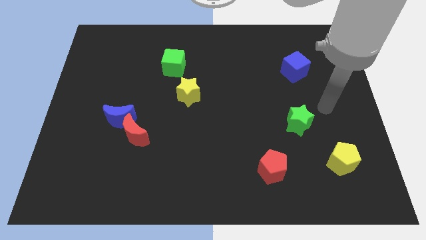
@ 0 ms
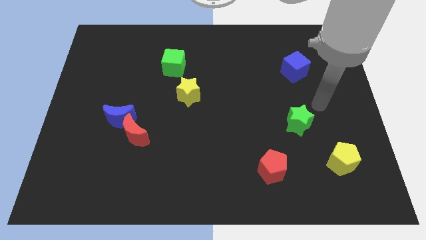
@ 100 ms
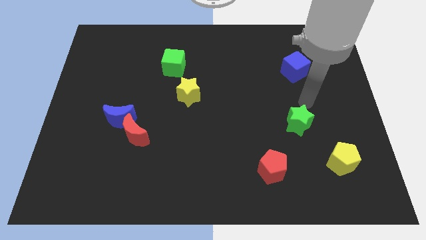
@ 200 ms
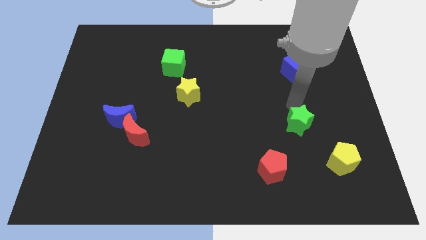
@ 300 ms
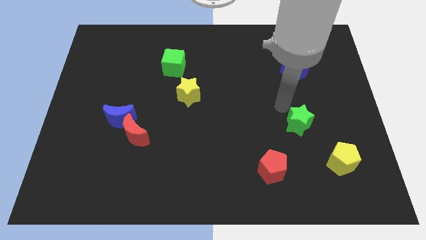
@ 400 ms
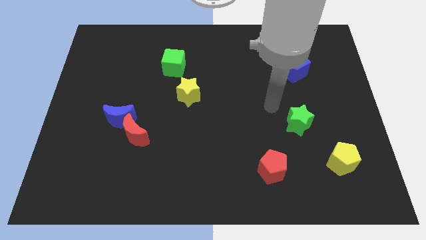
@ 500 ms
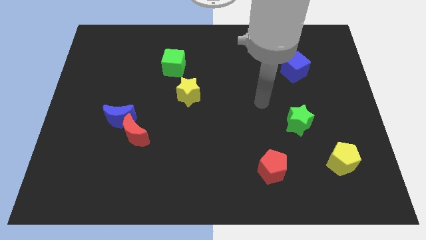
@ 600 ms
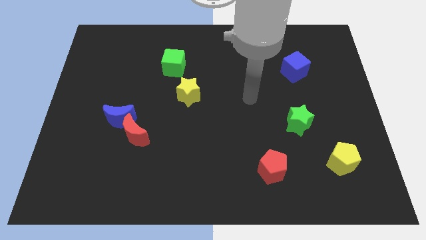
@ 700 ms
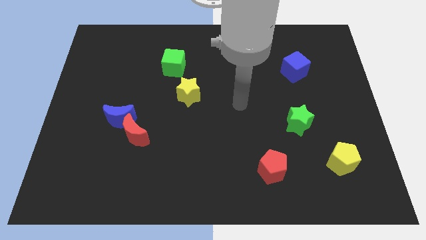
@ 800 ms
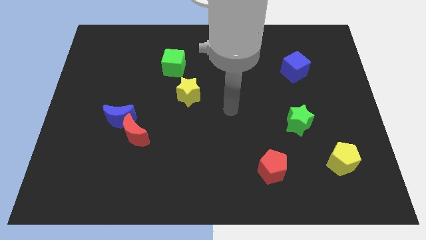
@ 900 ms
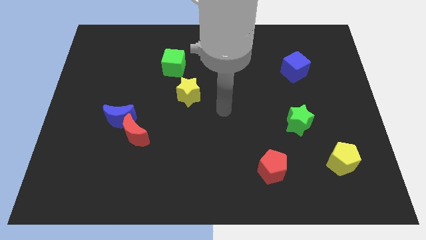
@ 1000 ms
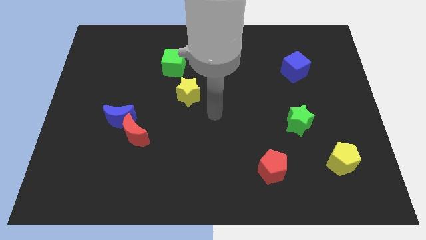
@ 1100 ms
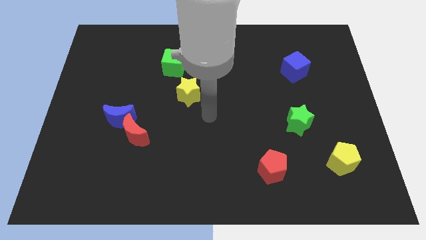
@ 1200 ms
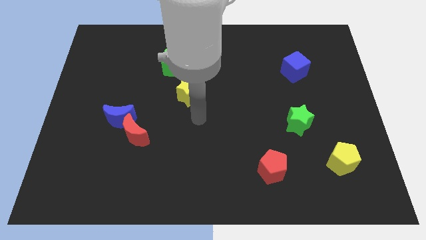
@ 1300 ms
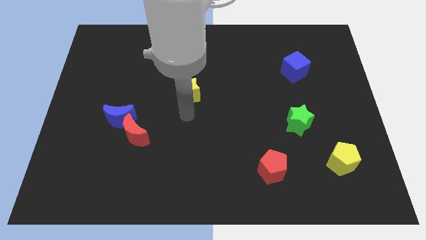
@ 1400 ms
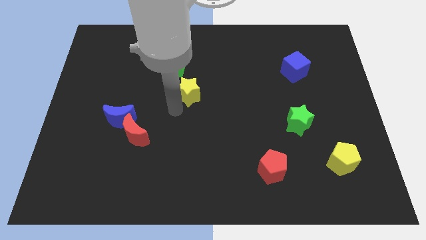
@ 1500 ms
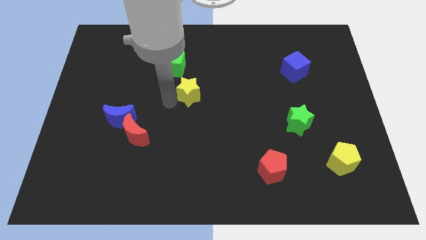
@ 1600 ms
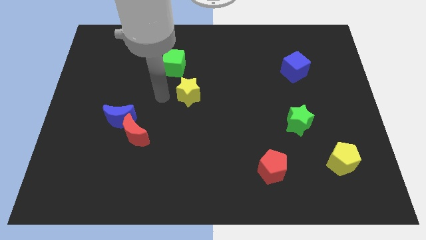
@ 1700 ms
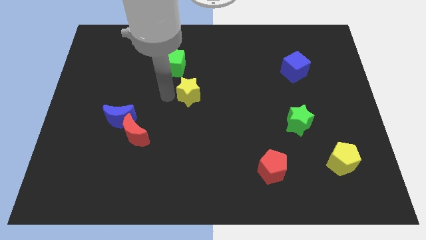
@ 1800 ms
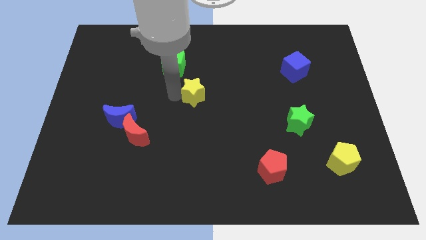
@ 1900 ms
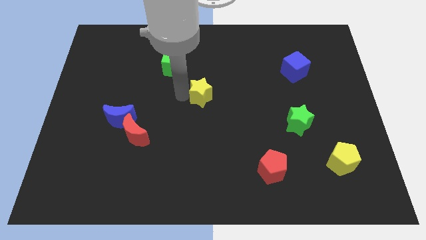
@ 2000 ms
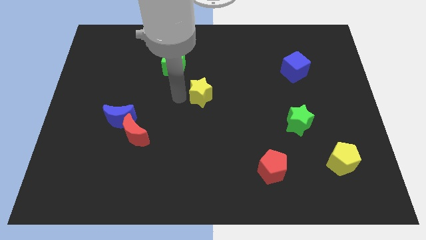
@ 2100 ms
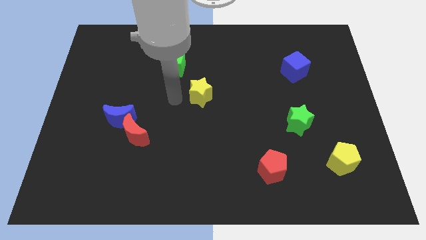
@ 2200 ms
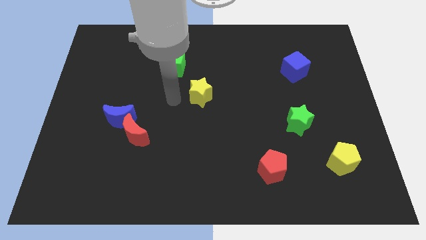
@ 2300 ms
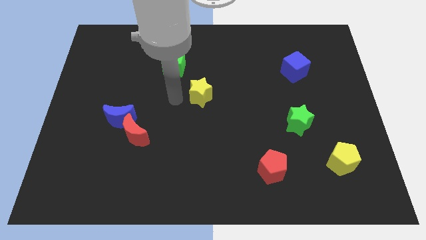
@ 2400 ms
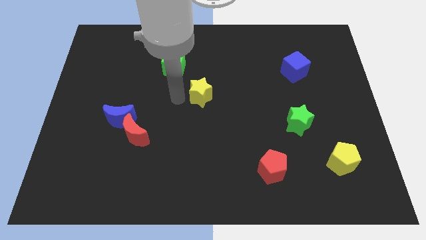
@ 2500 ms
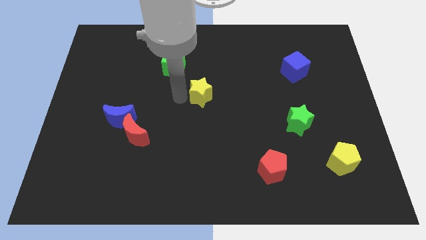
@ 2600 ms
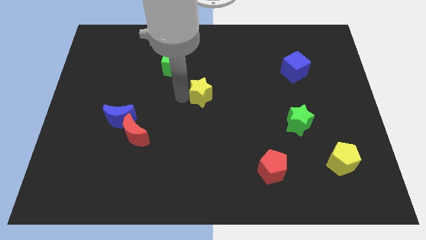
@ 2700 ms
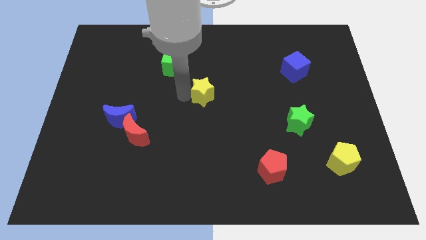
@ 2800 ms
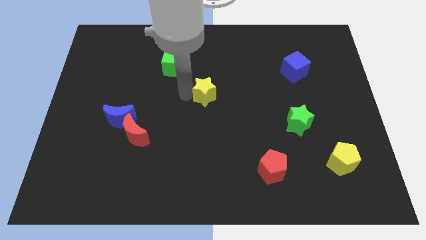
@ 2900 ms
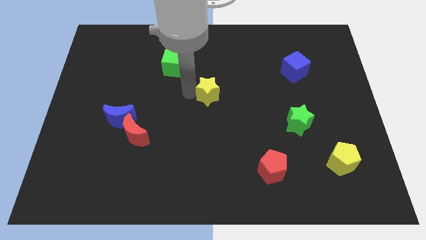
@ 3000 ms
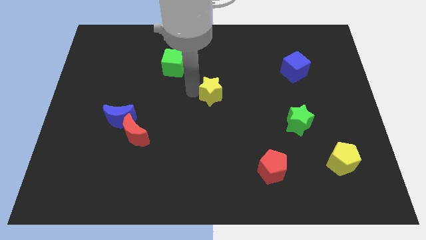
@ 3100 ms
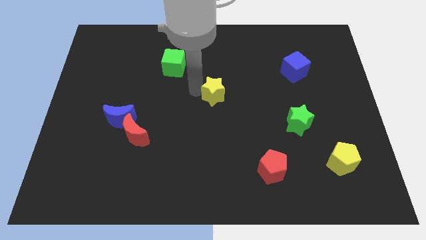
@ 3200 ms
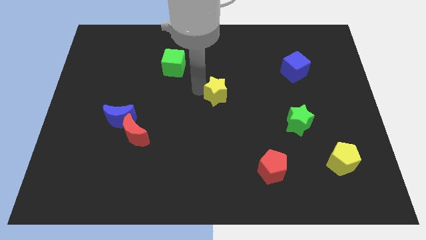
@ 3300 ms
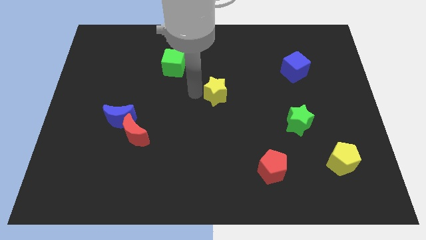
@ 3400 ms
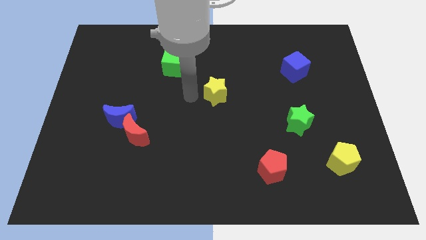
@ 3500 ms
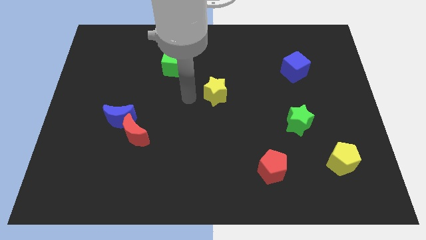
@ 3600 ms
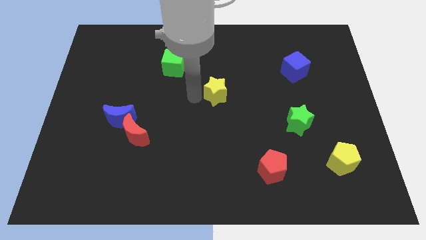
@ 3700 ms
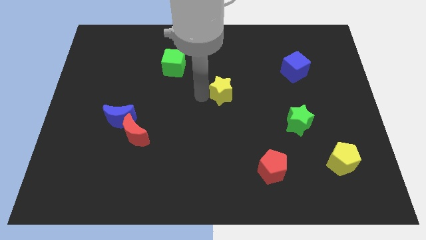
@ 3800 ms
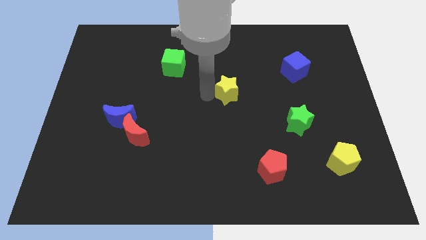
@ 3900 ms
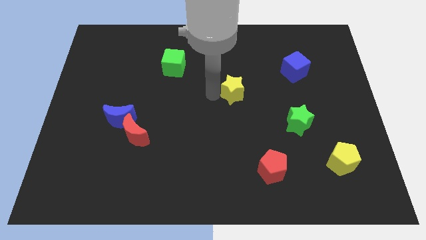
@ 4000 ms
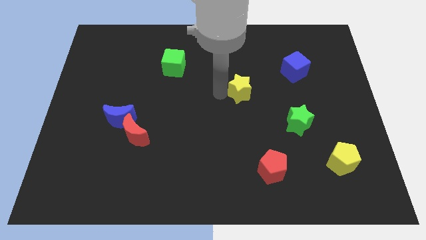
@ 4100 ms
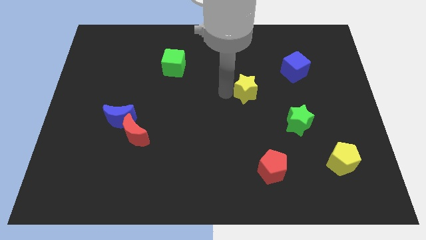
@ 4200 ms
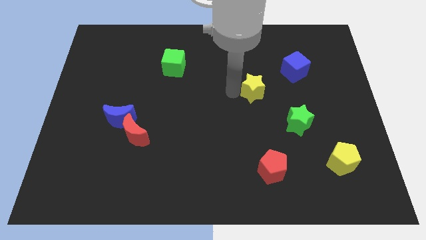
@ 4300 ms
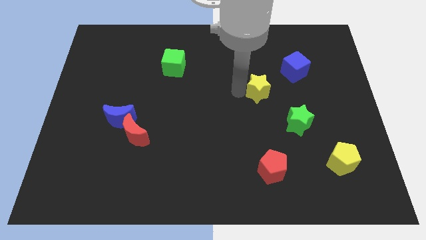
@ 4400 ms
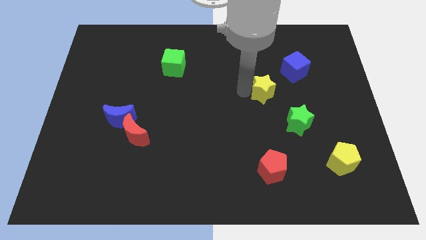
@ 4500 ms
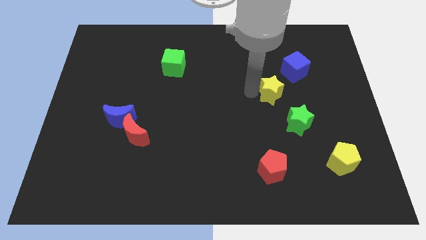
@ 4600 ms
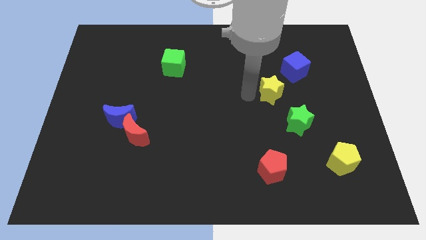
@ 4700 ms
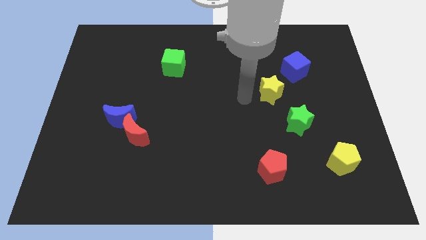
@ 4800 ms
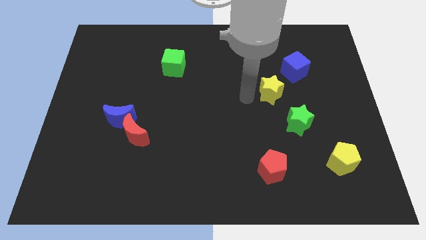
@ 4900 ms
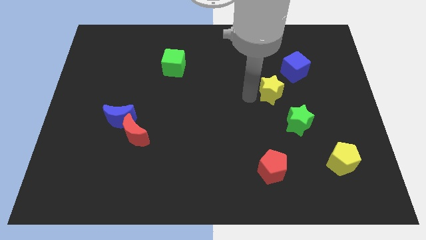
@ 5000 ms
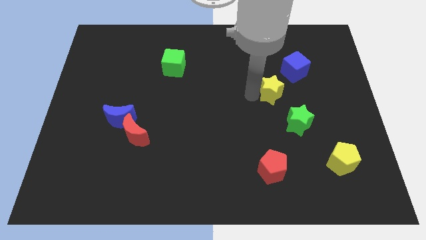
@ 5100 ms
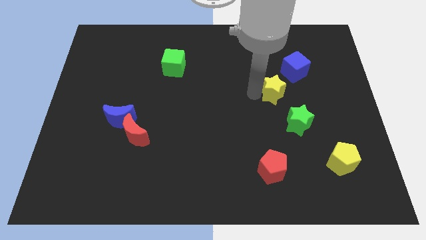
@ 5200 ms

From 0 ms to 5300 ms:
put the yellow star to the top side of the green star

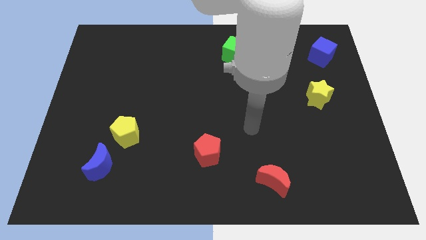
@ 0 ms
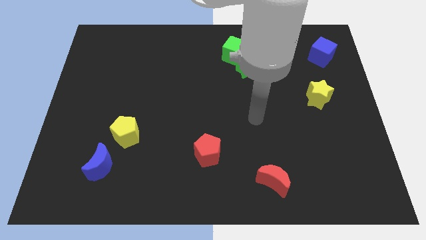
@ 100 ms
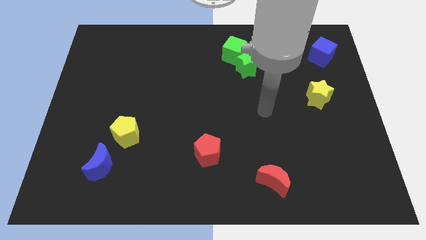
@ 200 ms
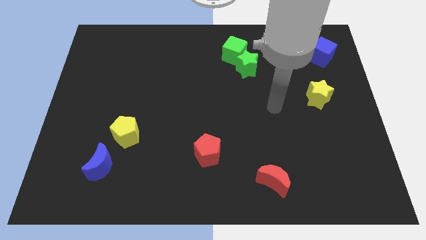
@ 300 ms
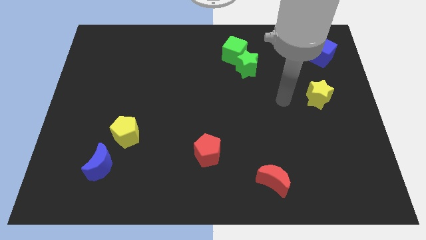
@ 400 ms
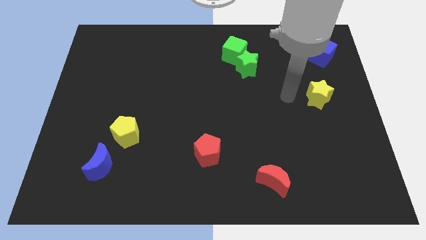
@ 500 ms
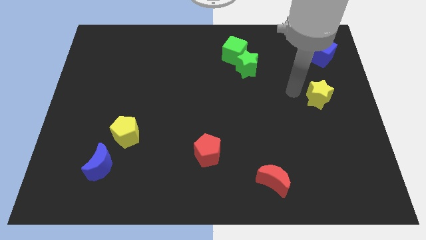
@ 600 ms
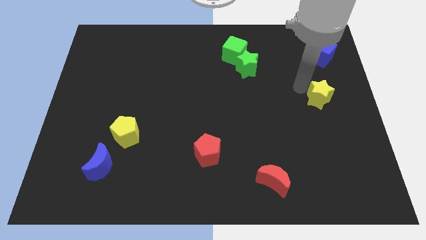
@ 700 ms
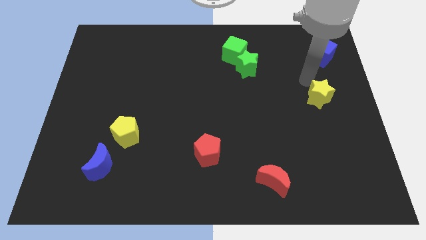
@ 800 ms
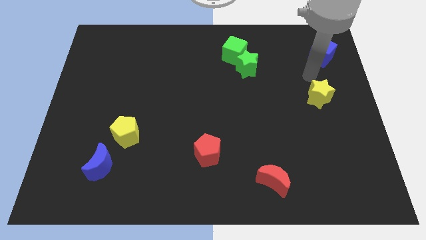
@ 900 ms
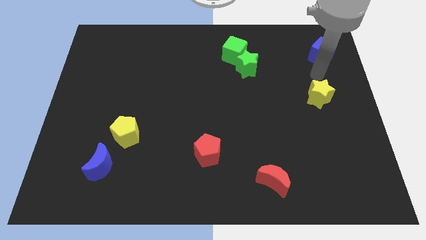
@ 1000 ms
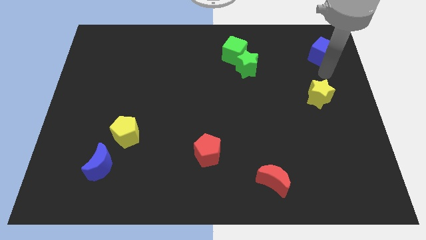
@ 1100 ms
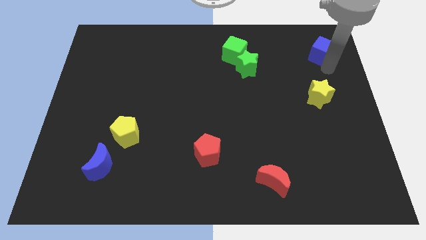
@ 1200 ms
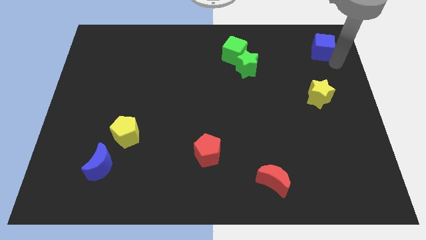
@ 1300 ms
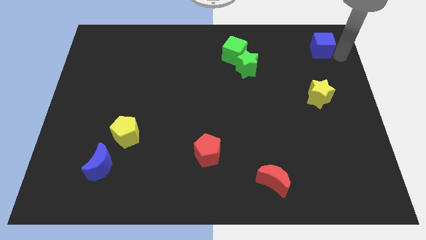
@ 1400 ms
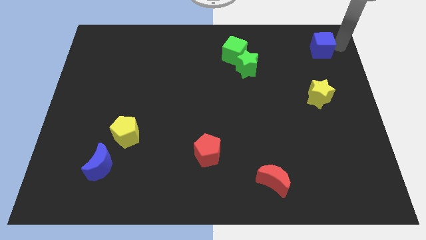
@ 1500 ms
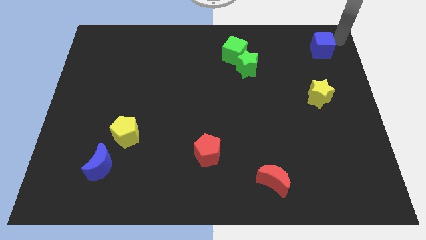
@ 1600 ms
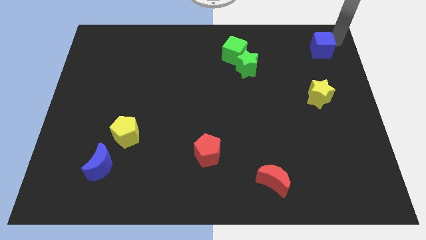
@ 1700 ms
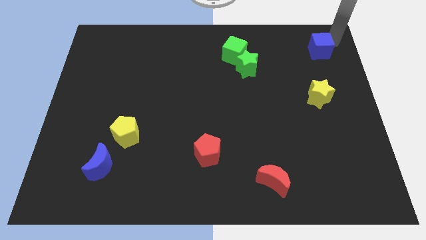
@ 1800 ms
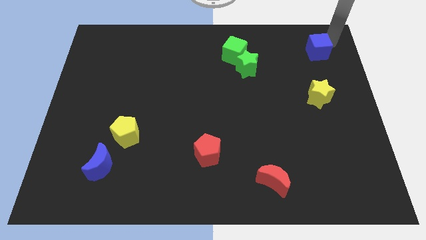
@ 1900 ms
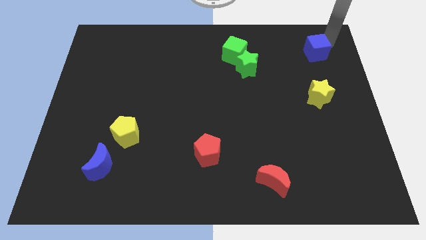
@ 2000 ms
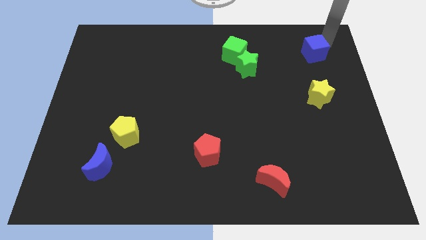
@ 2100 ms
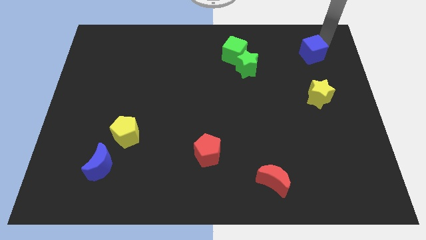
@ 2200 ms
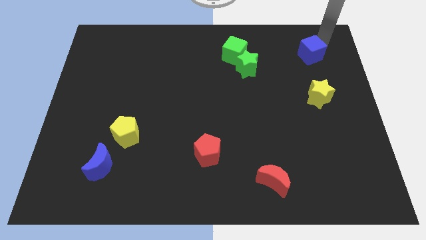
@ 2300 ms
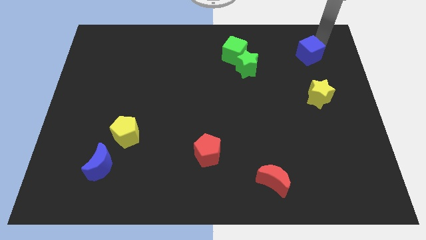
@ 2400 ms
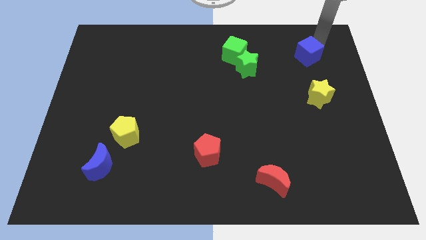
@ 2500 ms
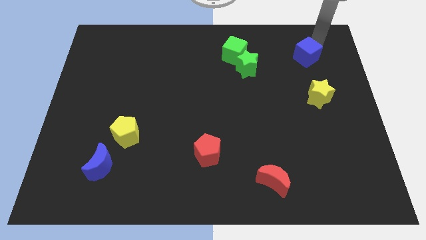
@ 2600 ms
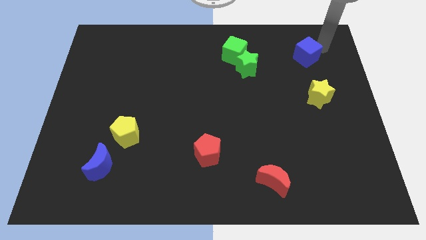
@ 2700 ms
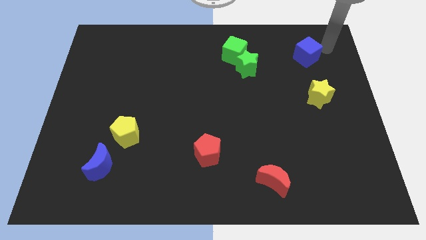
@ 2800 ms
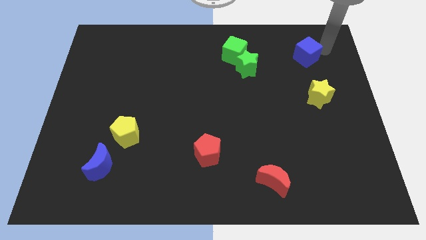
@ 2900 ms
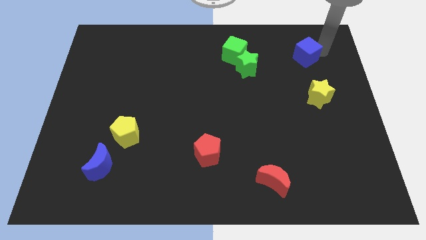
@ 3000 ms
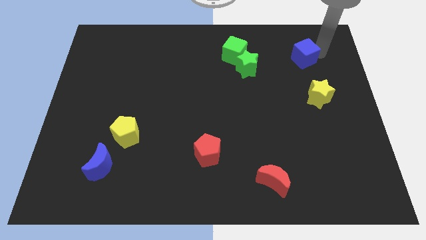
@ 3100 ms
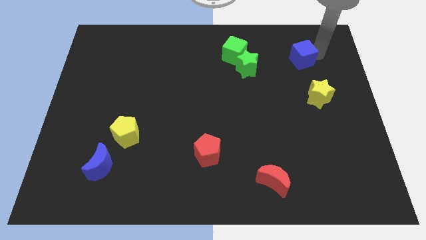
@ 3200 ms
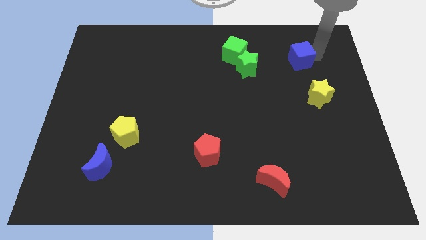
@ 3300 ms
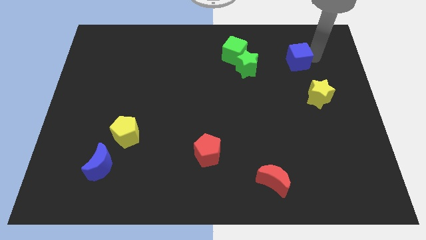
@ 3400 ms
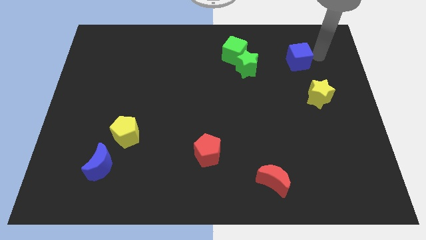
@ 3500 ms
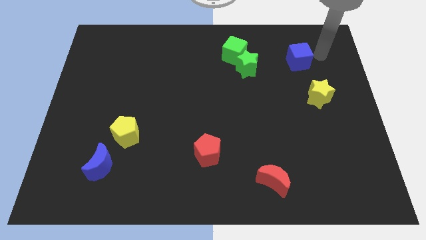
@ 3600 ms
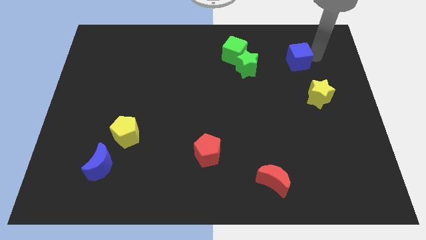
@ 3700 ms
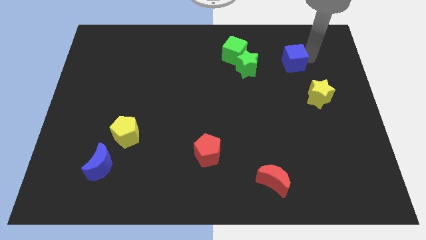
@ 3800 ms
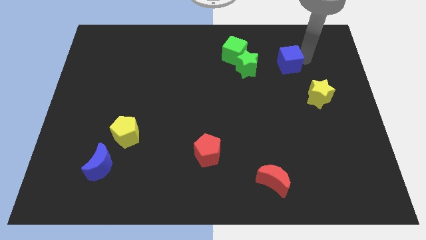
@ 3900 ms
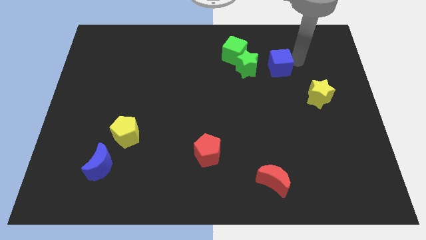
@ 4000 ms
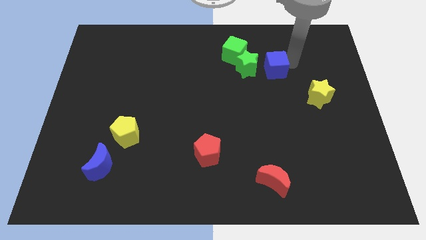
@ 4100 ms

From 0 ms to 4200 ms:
put the blue cube to the bottom right of the green cube
